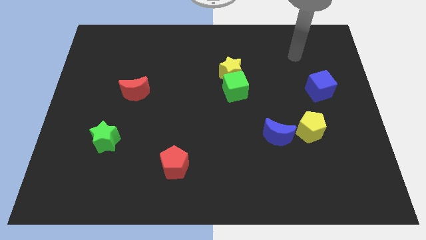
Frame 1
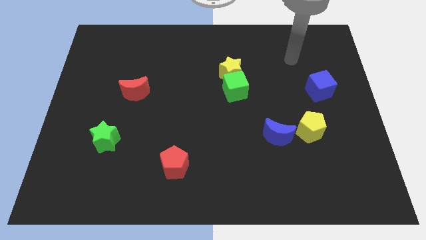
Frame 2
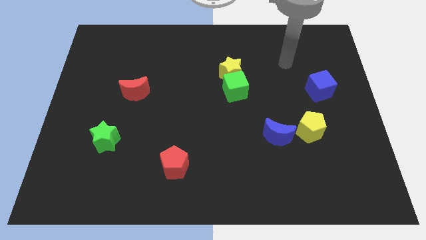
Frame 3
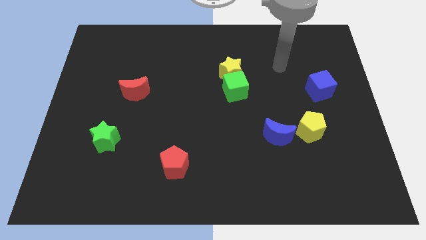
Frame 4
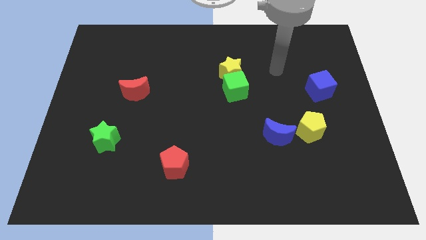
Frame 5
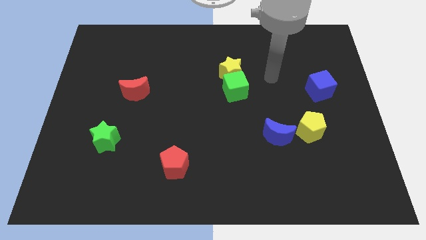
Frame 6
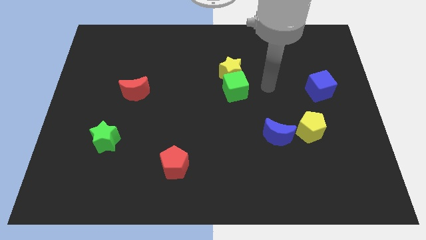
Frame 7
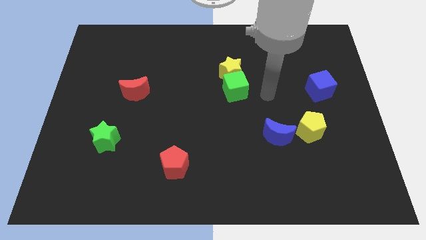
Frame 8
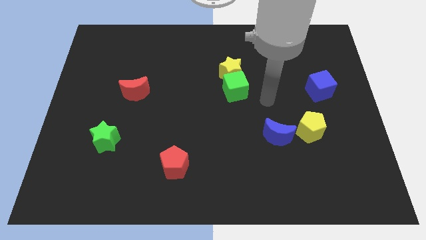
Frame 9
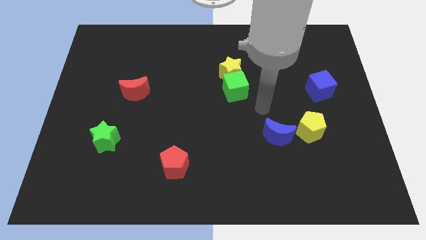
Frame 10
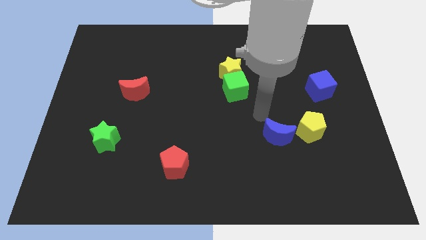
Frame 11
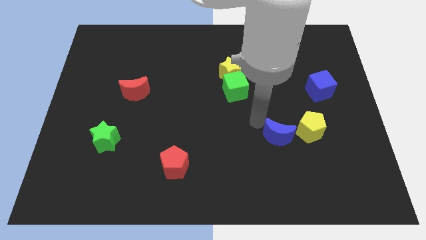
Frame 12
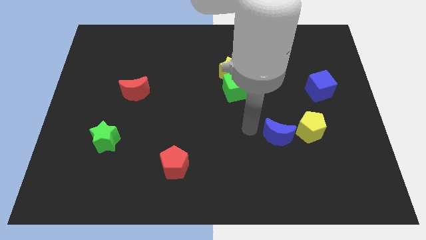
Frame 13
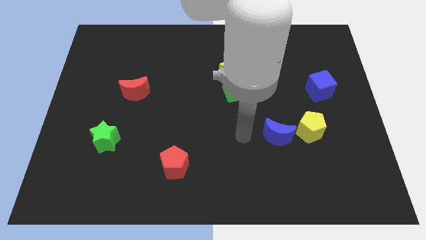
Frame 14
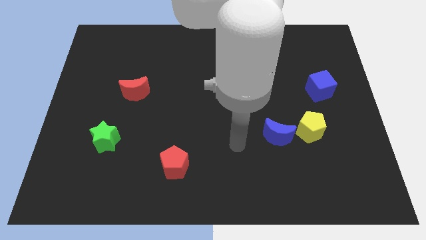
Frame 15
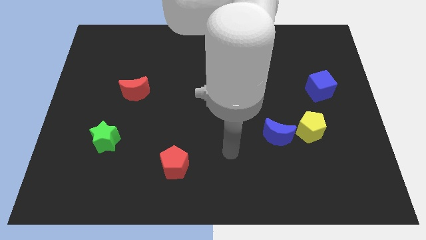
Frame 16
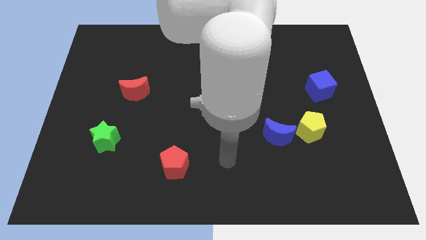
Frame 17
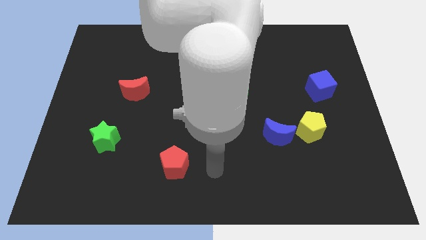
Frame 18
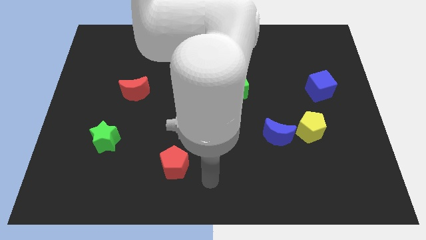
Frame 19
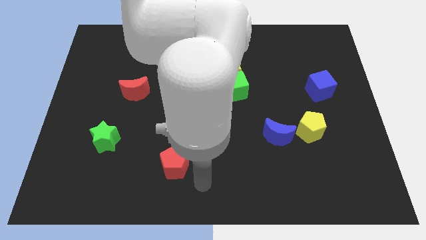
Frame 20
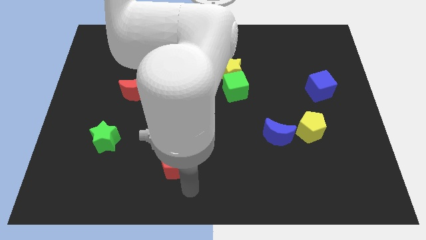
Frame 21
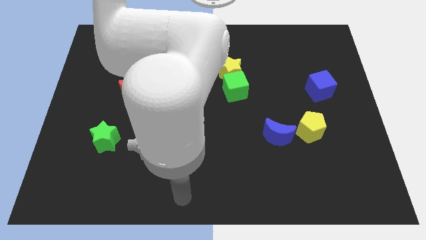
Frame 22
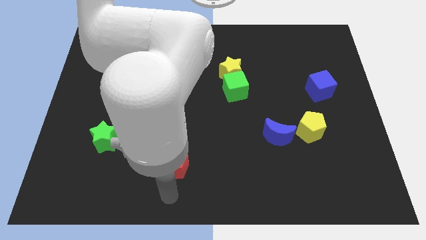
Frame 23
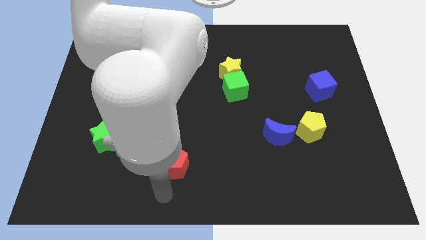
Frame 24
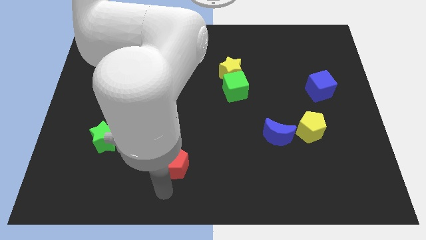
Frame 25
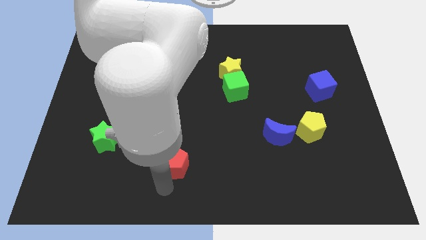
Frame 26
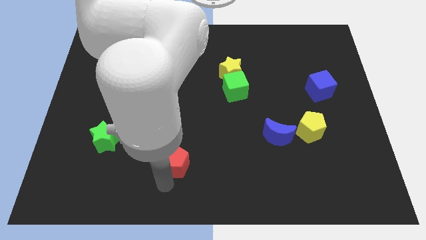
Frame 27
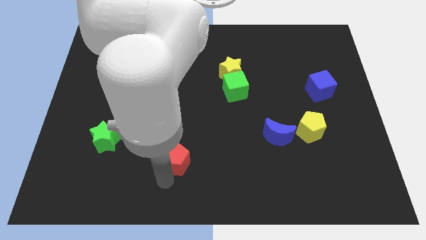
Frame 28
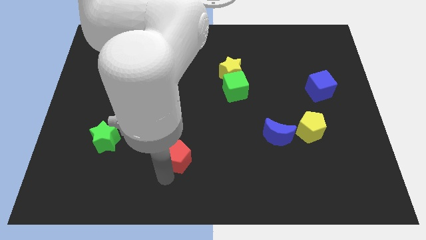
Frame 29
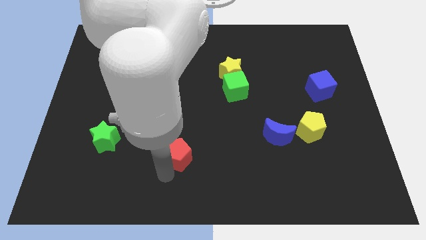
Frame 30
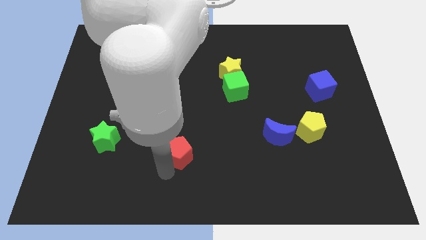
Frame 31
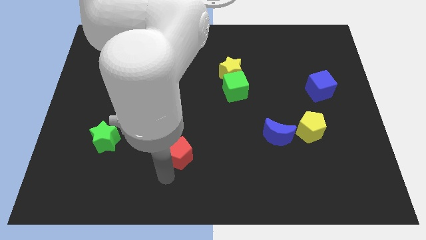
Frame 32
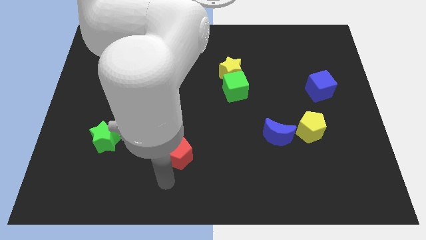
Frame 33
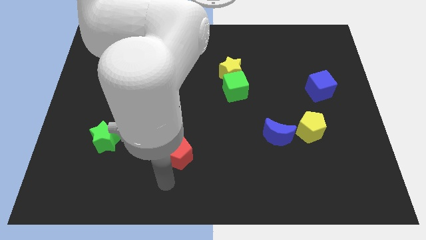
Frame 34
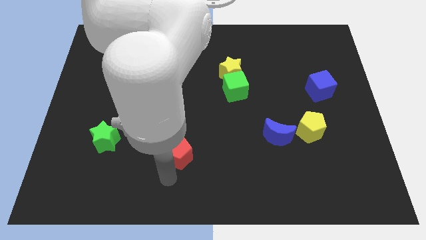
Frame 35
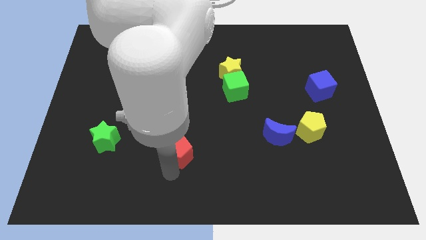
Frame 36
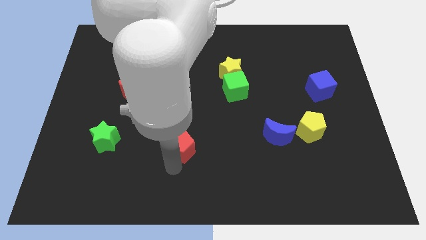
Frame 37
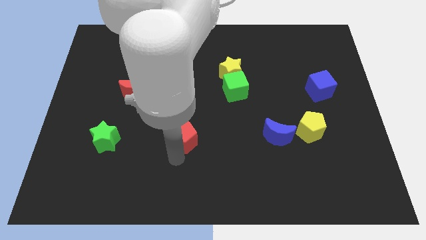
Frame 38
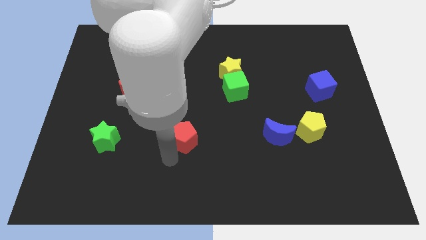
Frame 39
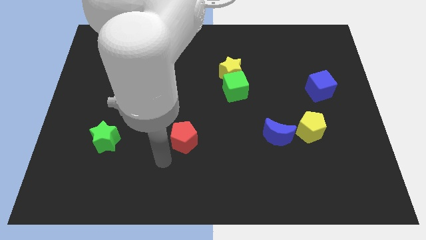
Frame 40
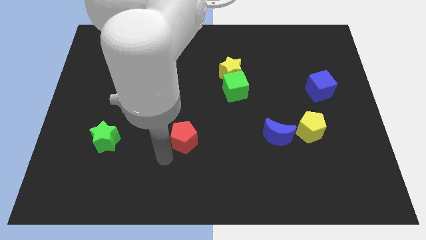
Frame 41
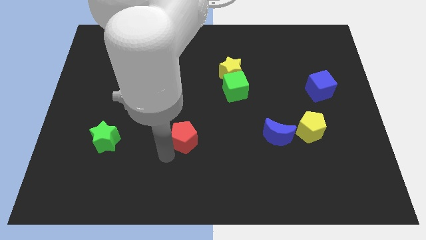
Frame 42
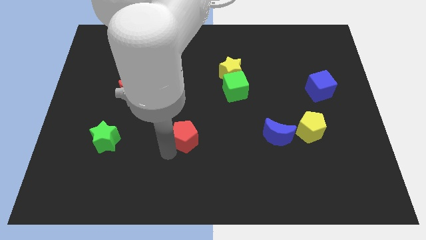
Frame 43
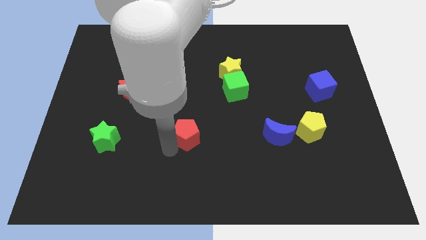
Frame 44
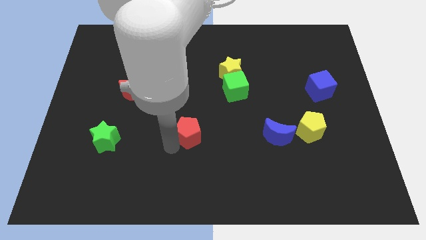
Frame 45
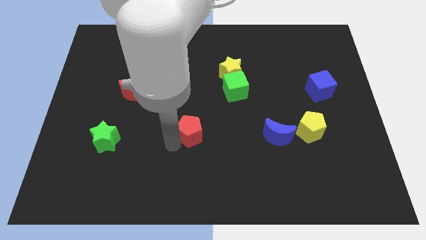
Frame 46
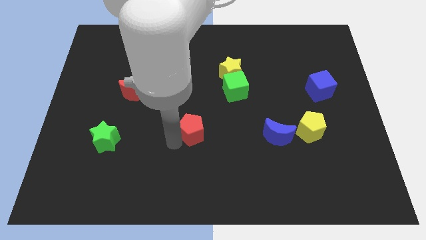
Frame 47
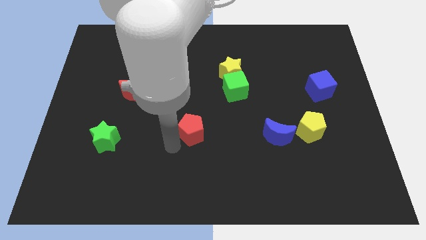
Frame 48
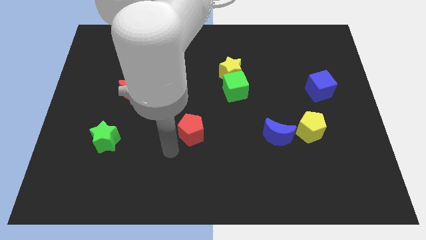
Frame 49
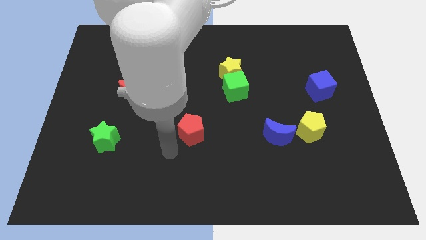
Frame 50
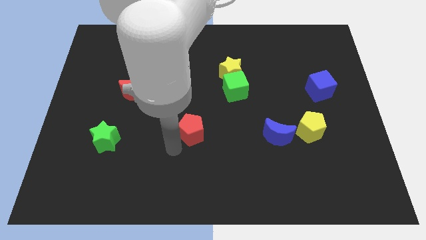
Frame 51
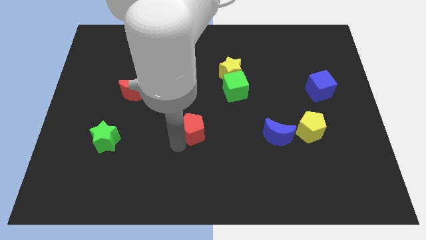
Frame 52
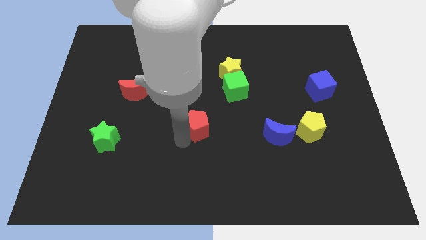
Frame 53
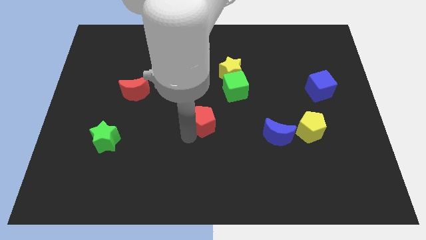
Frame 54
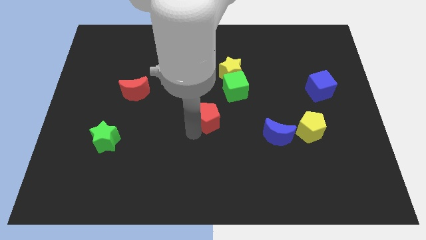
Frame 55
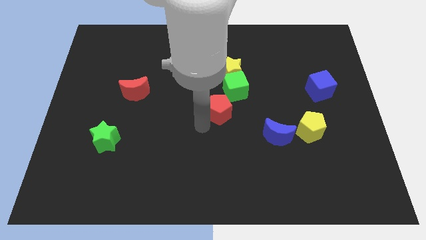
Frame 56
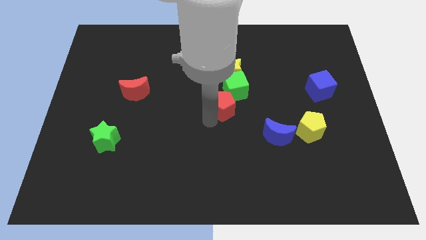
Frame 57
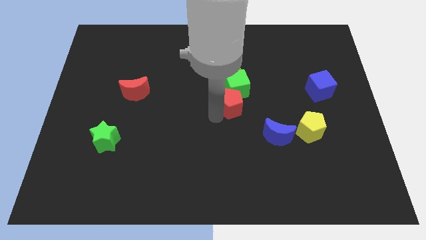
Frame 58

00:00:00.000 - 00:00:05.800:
slide the red pentagon to the green cube

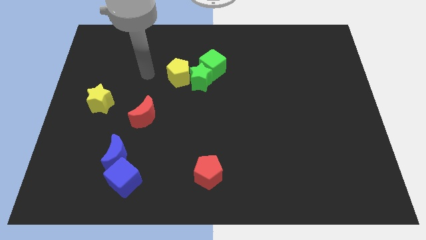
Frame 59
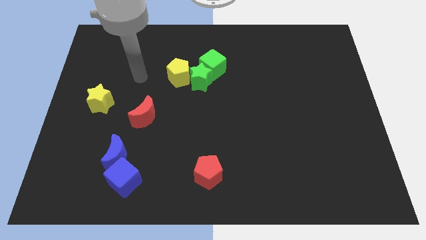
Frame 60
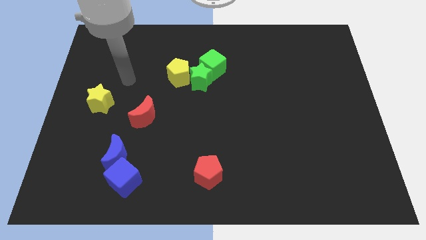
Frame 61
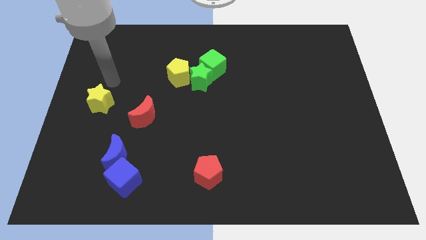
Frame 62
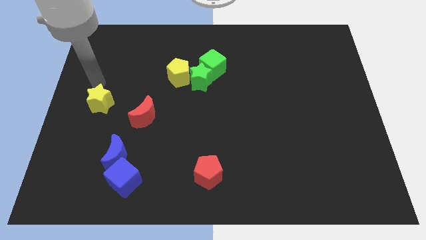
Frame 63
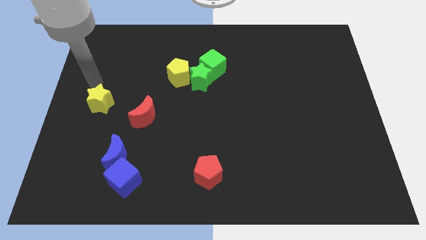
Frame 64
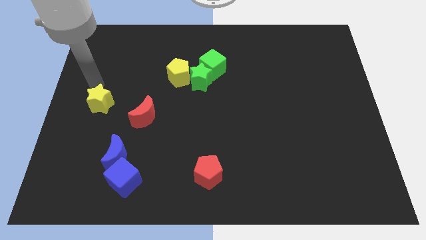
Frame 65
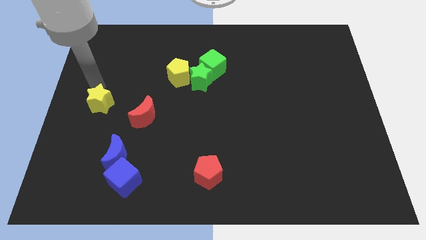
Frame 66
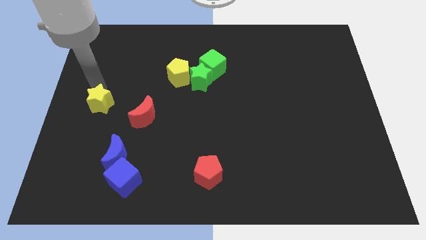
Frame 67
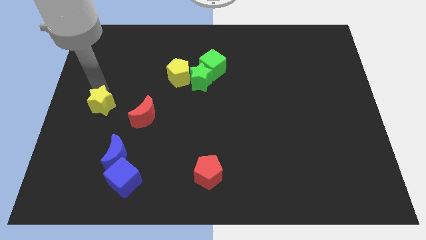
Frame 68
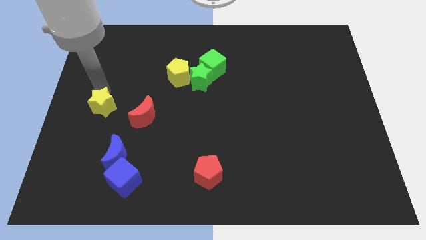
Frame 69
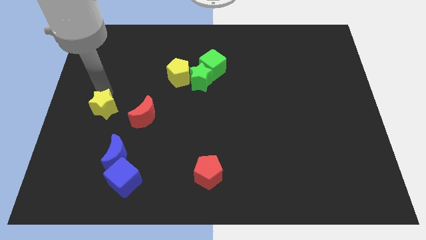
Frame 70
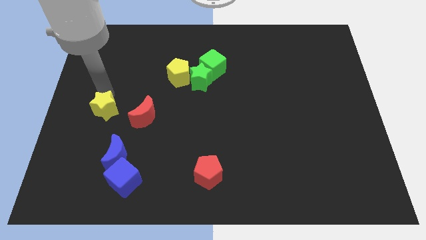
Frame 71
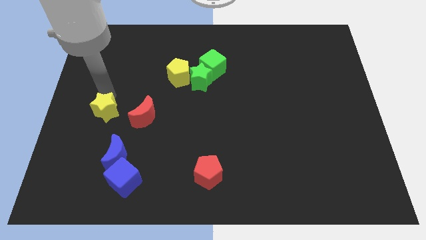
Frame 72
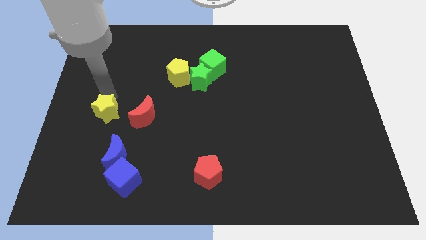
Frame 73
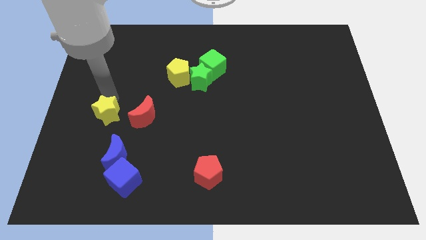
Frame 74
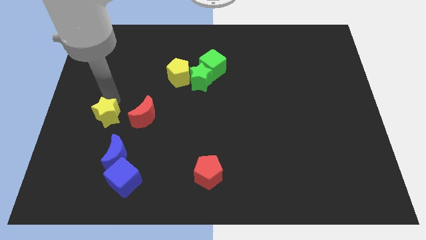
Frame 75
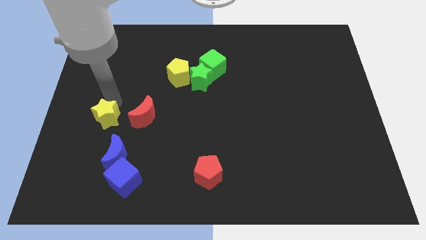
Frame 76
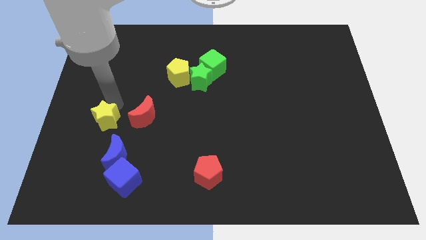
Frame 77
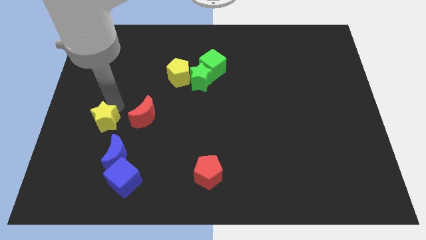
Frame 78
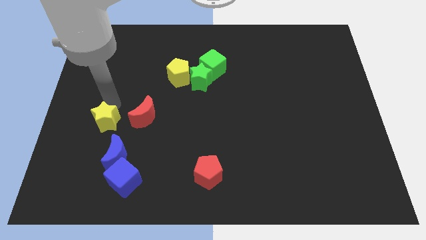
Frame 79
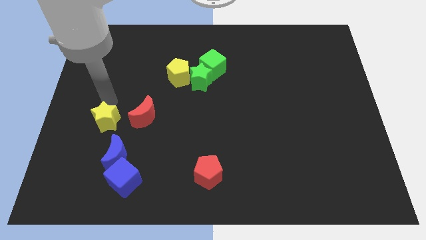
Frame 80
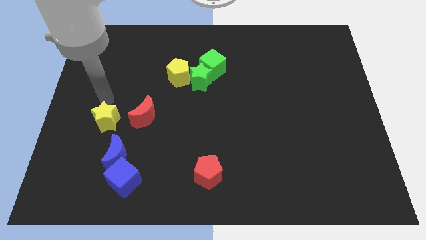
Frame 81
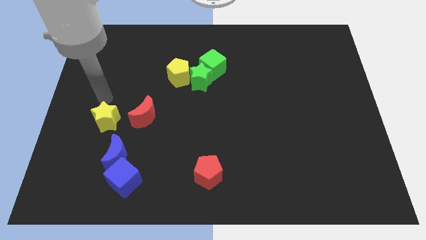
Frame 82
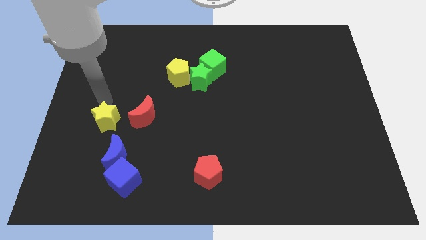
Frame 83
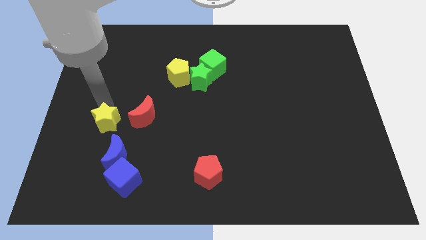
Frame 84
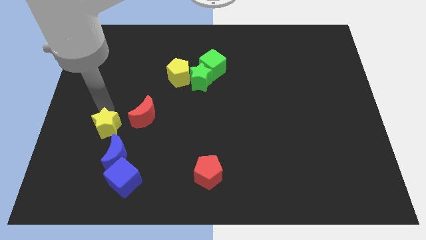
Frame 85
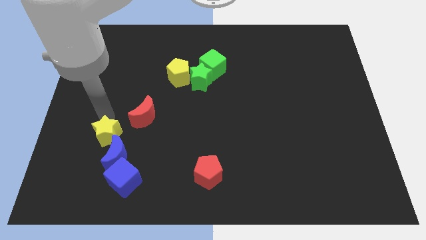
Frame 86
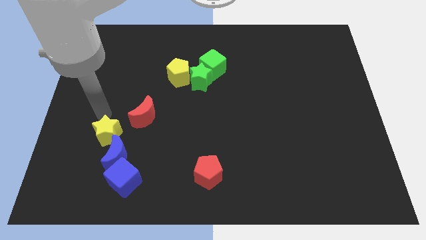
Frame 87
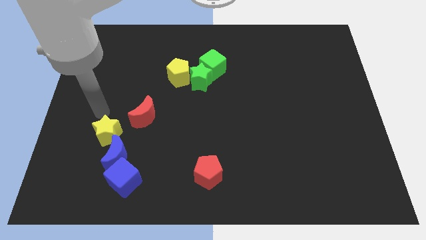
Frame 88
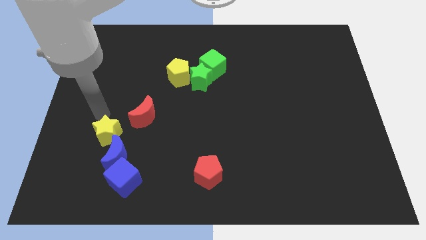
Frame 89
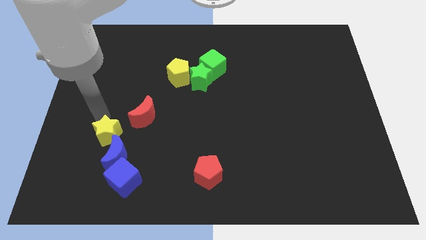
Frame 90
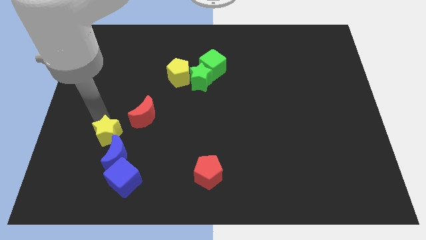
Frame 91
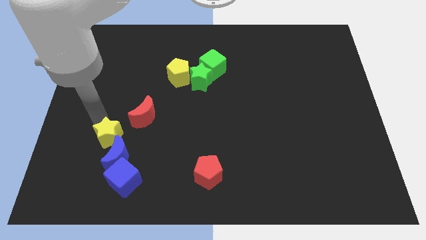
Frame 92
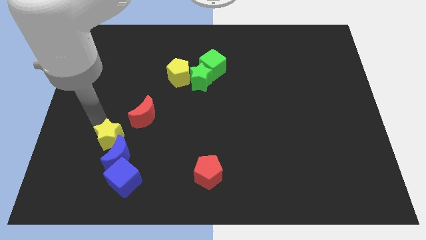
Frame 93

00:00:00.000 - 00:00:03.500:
push the yellow star close to the blue moon
